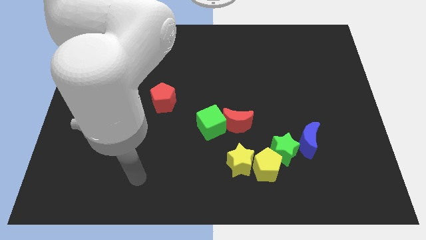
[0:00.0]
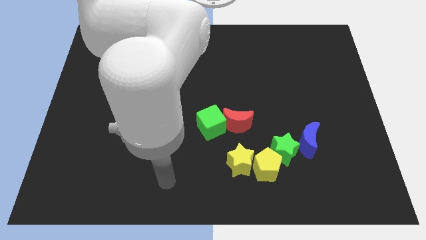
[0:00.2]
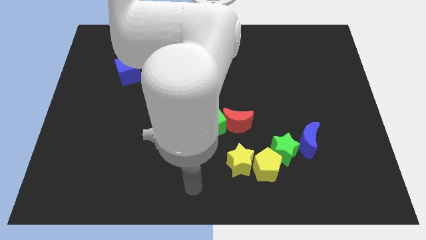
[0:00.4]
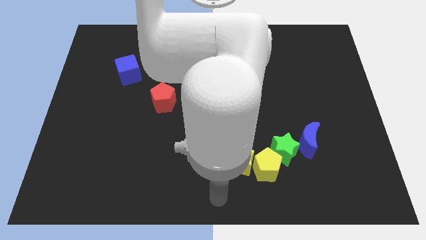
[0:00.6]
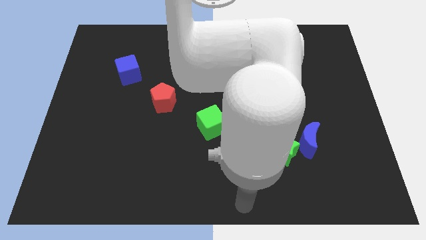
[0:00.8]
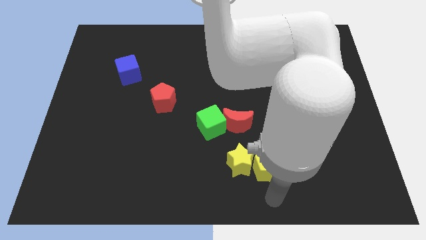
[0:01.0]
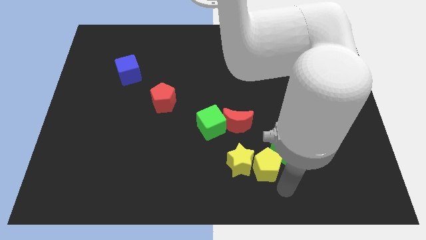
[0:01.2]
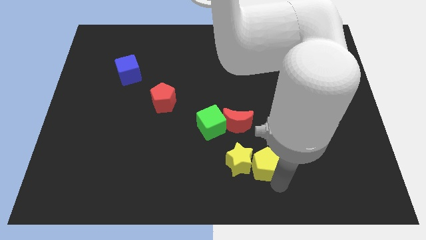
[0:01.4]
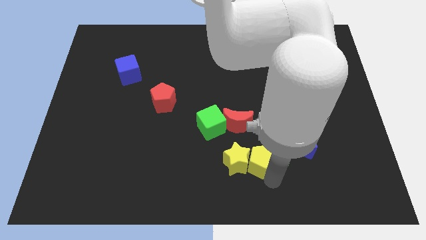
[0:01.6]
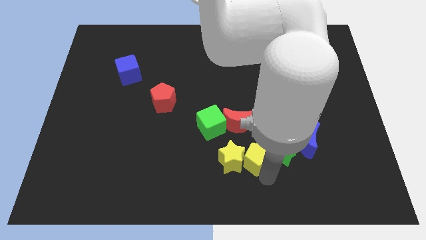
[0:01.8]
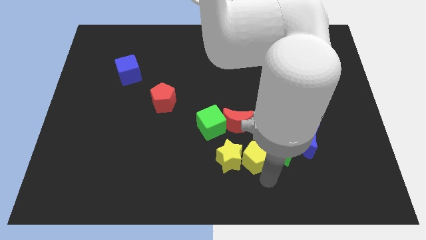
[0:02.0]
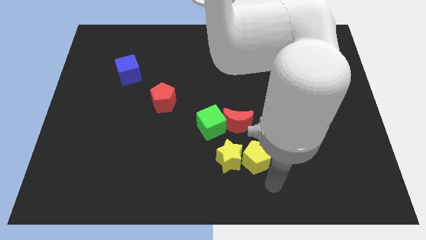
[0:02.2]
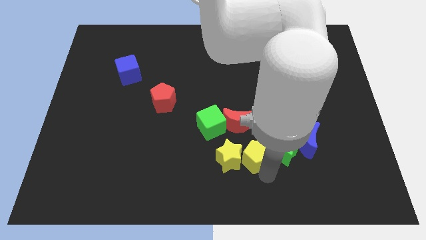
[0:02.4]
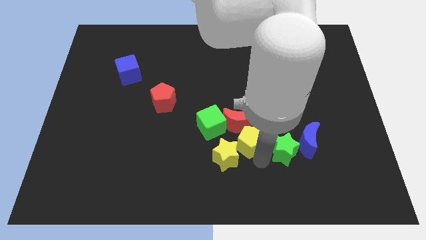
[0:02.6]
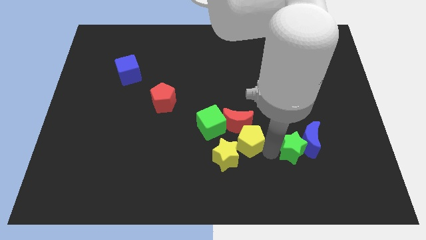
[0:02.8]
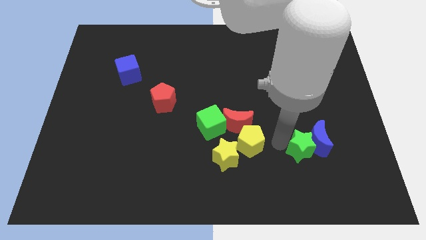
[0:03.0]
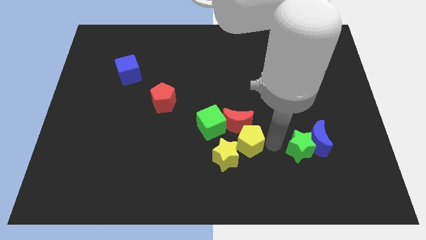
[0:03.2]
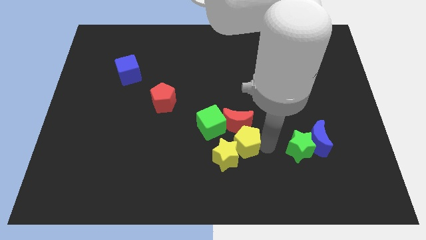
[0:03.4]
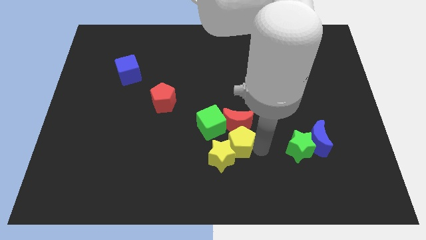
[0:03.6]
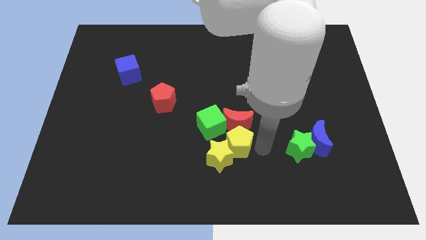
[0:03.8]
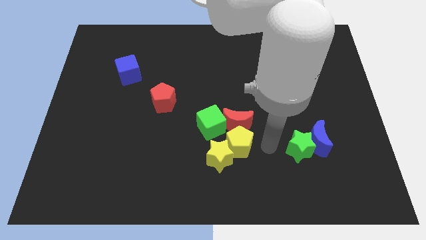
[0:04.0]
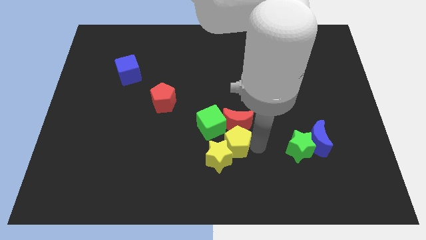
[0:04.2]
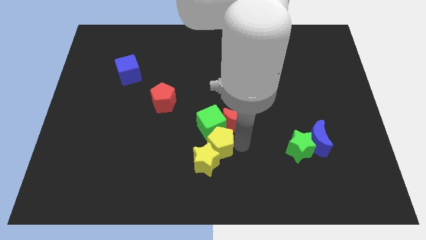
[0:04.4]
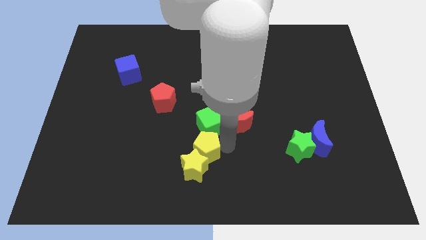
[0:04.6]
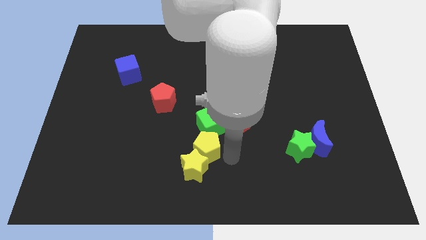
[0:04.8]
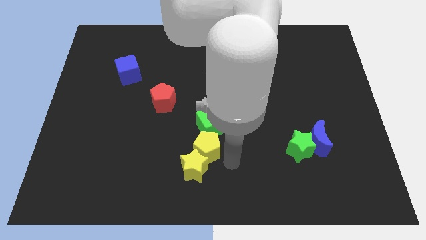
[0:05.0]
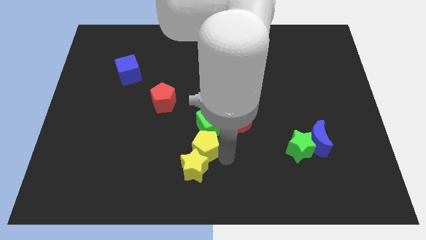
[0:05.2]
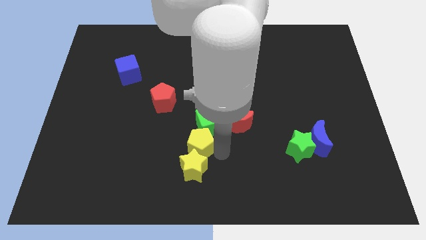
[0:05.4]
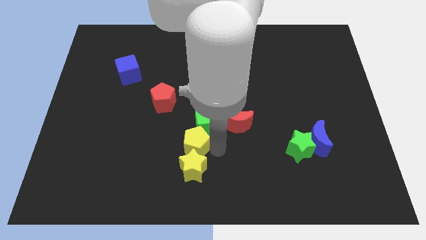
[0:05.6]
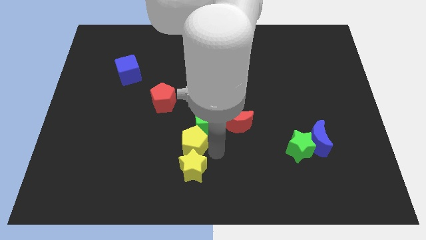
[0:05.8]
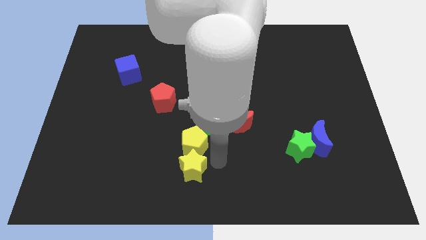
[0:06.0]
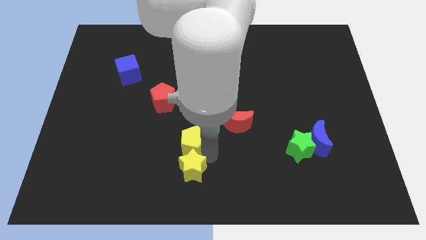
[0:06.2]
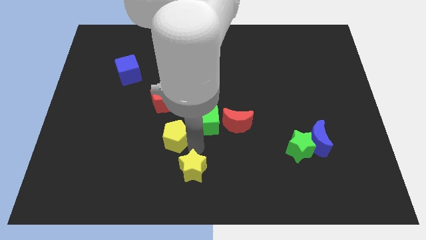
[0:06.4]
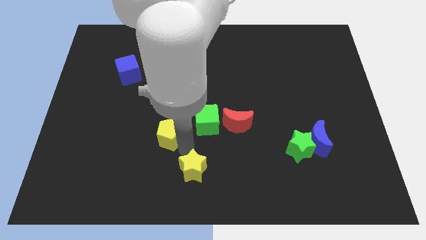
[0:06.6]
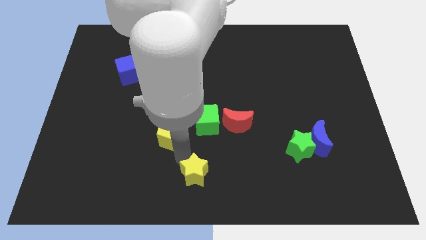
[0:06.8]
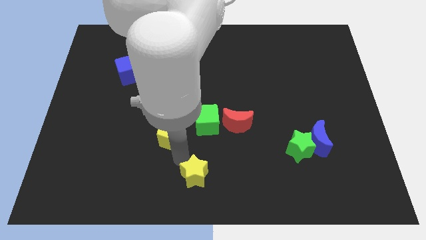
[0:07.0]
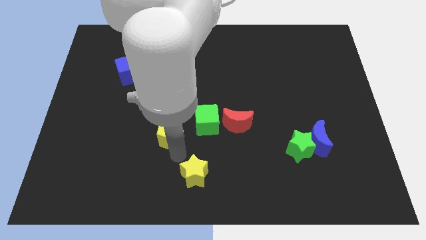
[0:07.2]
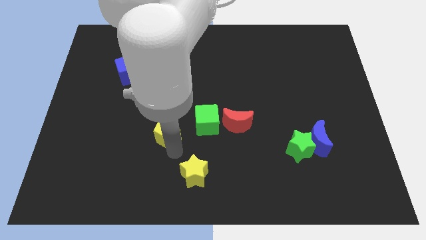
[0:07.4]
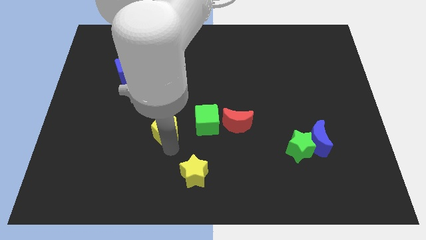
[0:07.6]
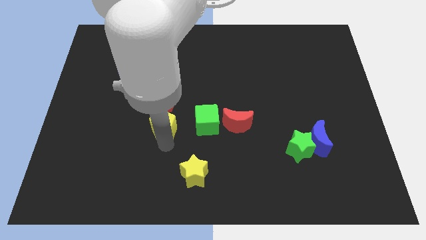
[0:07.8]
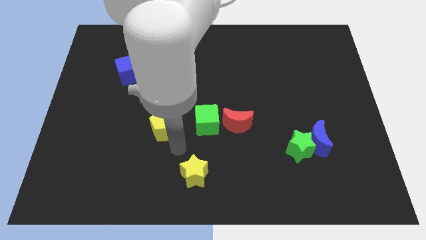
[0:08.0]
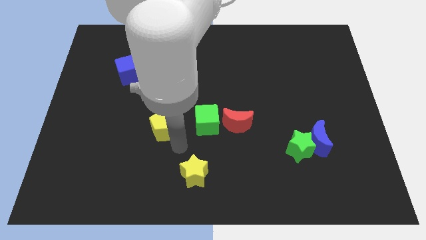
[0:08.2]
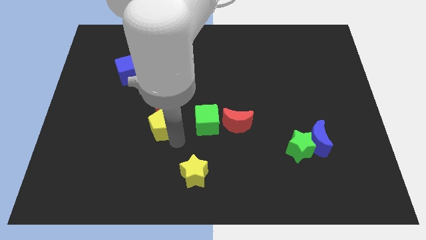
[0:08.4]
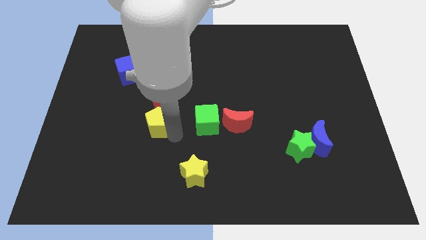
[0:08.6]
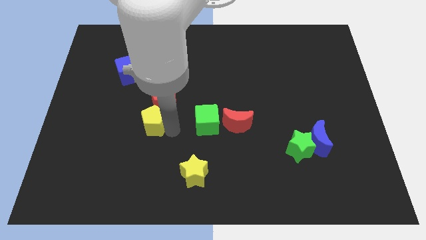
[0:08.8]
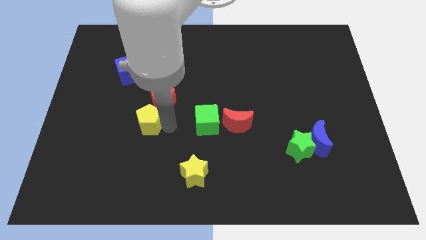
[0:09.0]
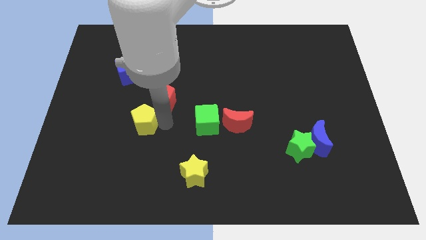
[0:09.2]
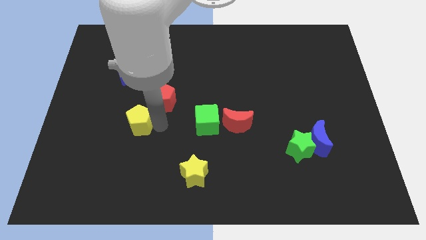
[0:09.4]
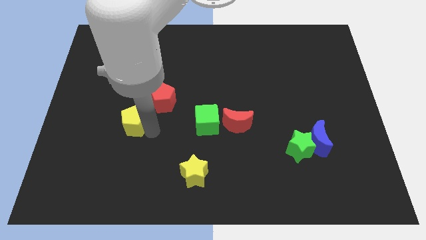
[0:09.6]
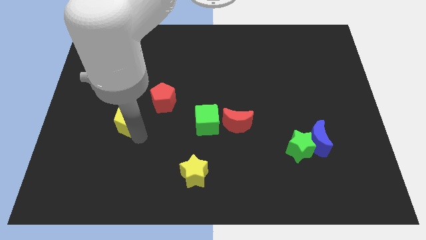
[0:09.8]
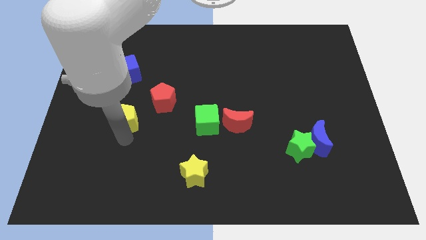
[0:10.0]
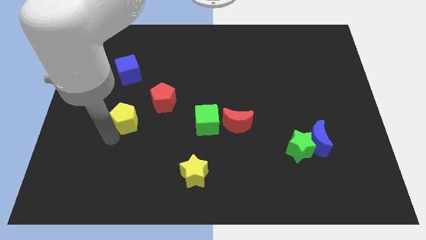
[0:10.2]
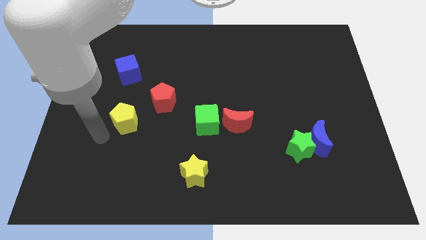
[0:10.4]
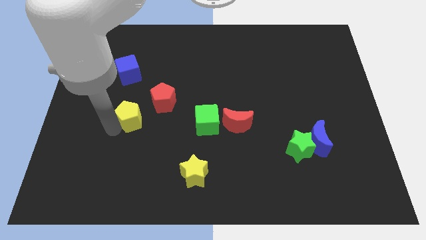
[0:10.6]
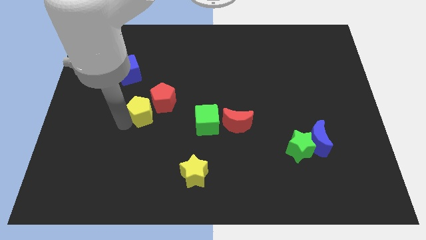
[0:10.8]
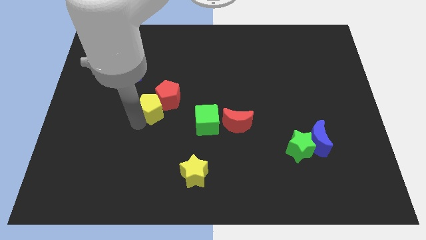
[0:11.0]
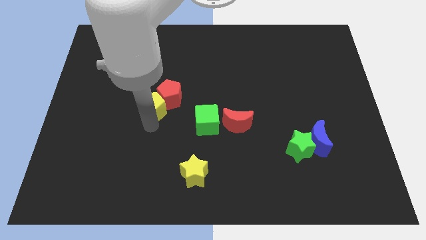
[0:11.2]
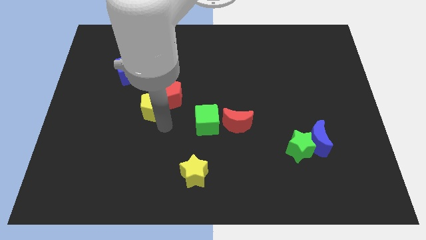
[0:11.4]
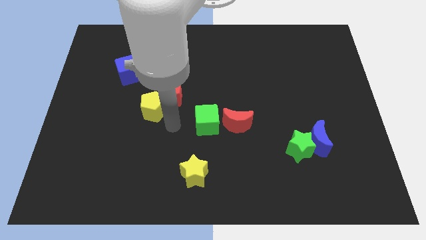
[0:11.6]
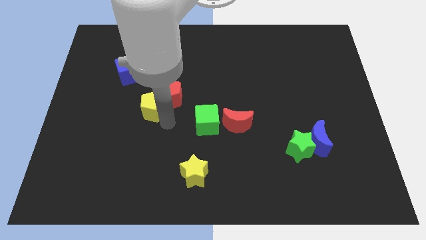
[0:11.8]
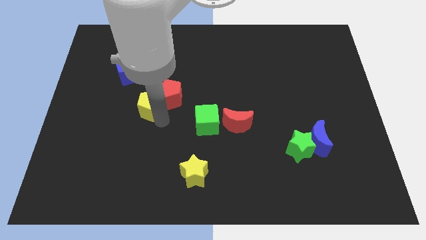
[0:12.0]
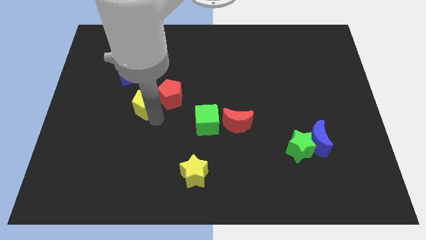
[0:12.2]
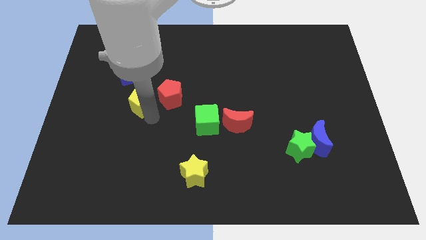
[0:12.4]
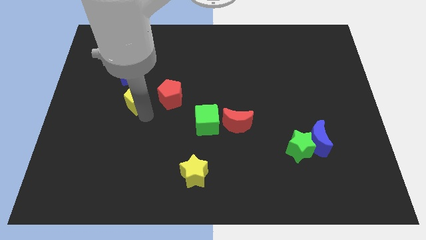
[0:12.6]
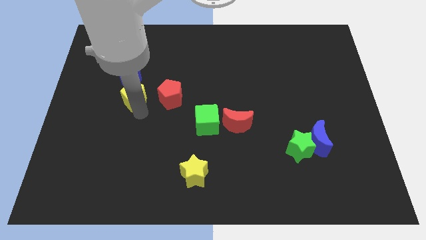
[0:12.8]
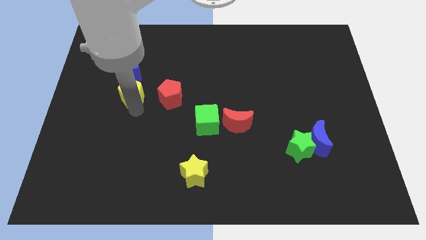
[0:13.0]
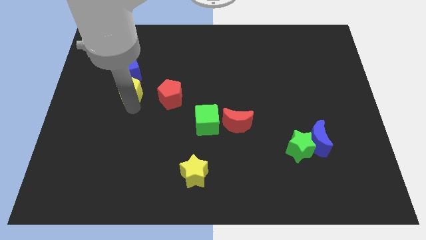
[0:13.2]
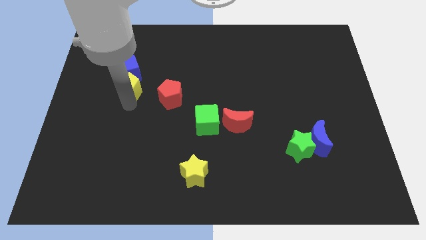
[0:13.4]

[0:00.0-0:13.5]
put the yellow pentagon towards the blue cube

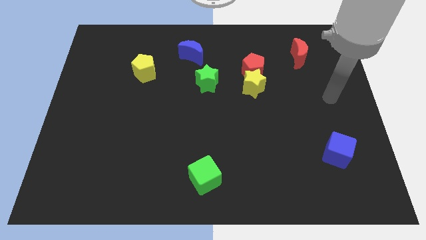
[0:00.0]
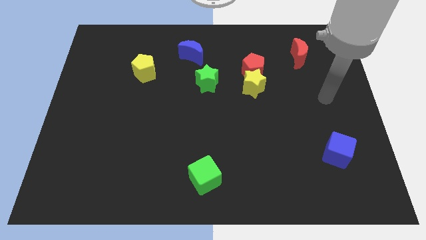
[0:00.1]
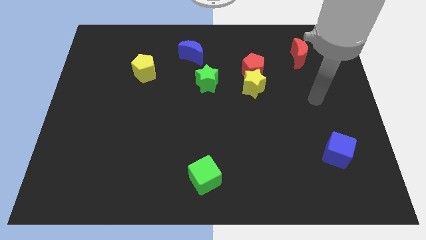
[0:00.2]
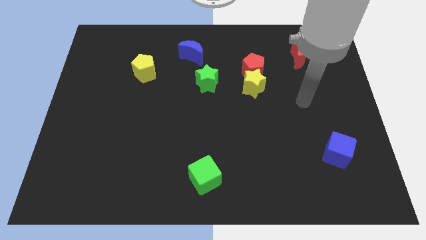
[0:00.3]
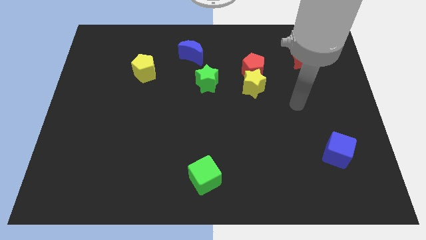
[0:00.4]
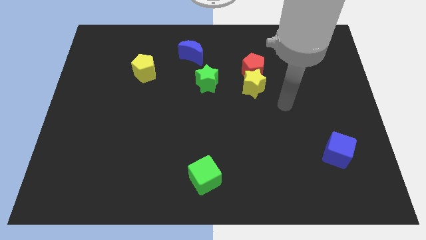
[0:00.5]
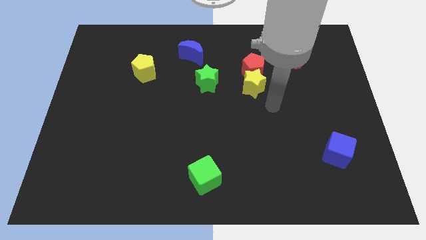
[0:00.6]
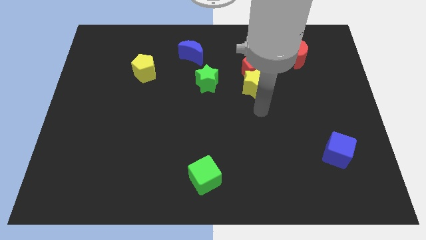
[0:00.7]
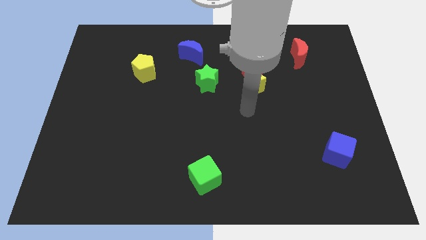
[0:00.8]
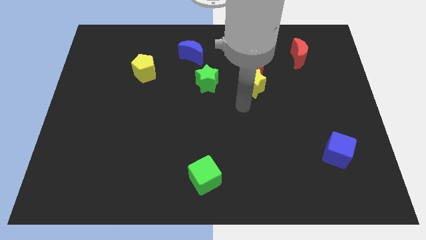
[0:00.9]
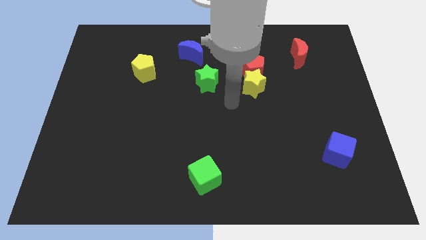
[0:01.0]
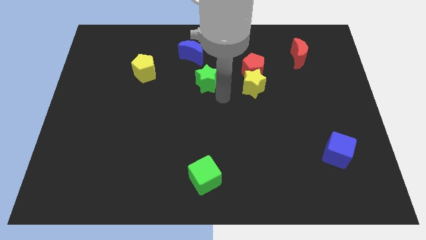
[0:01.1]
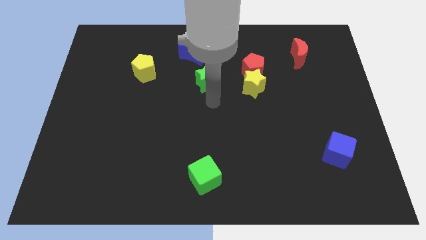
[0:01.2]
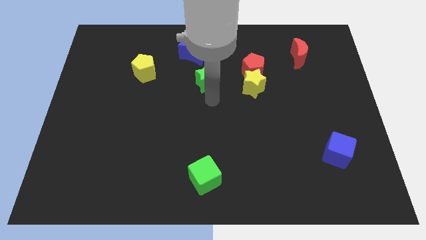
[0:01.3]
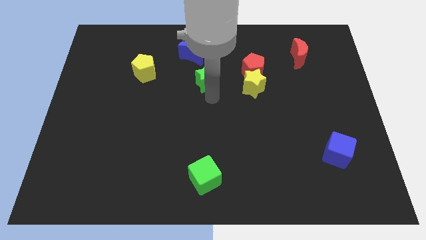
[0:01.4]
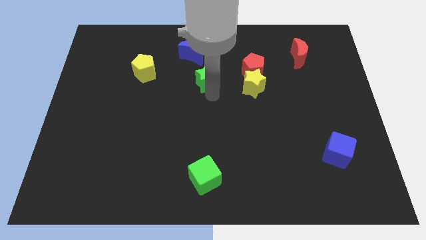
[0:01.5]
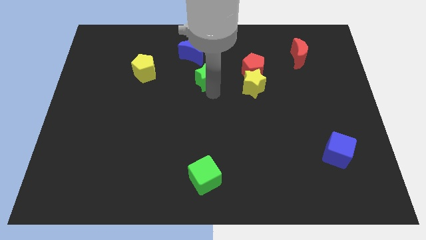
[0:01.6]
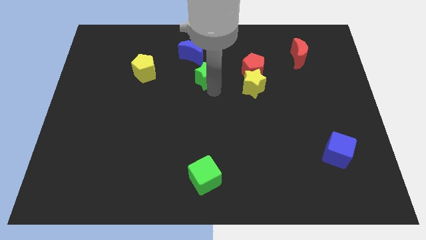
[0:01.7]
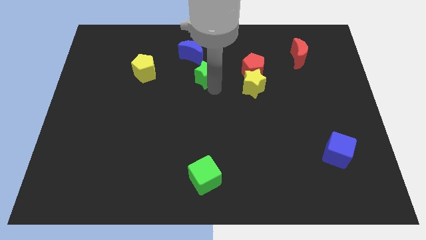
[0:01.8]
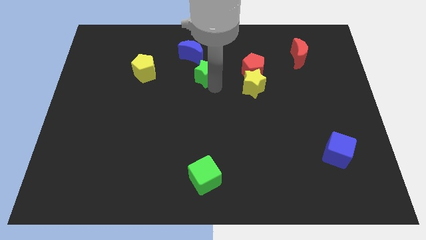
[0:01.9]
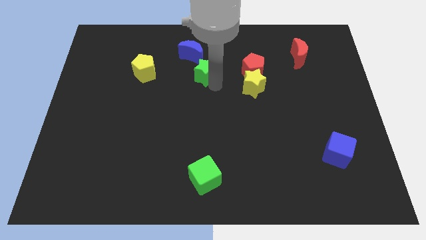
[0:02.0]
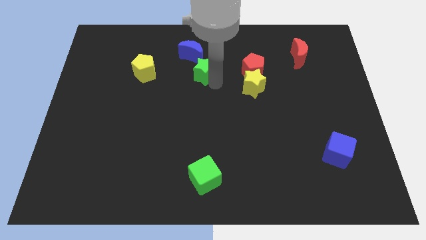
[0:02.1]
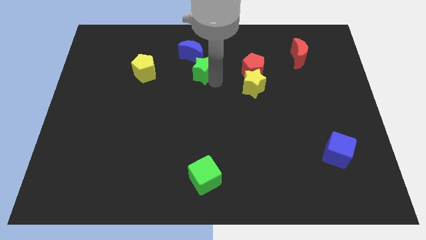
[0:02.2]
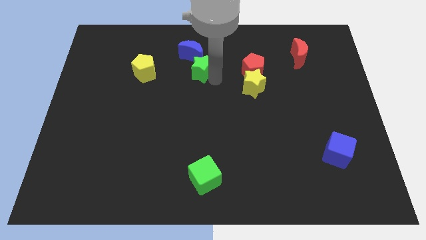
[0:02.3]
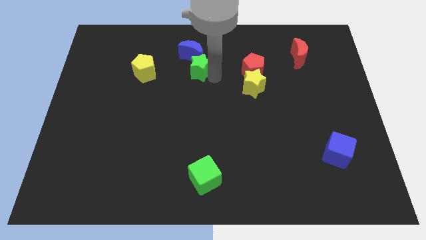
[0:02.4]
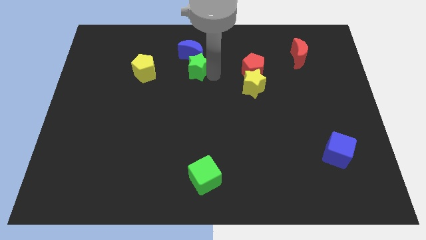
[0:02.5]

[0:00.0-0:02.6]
move the green star close to the blue moon
